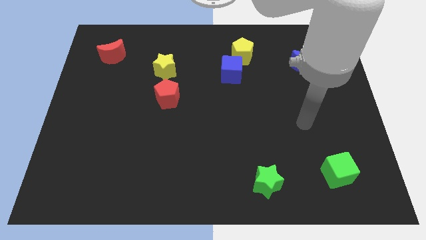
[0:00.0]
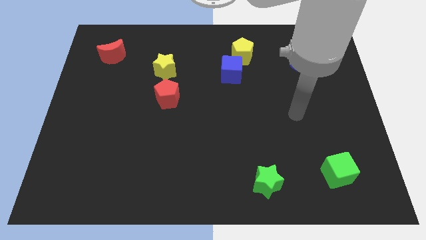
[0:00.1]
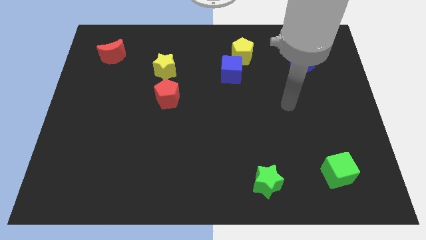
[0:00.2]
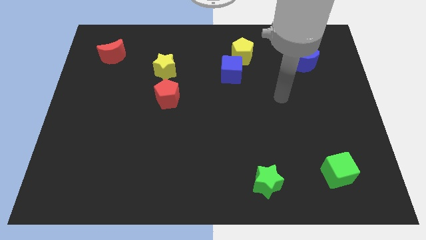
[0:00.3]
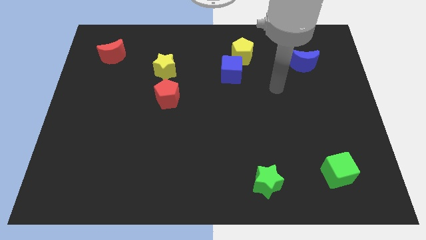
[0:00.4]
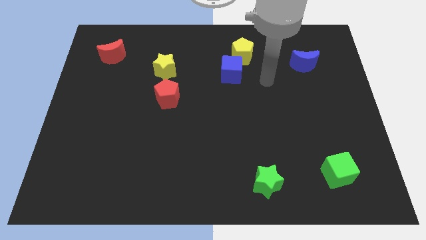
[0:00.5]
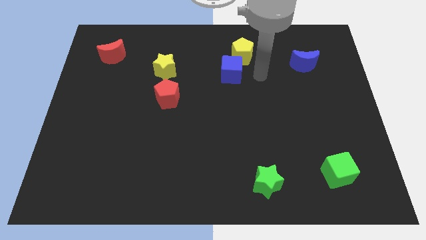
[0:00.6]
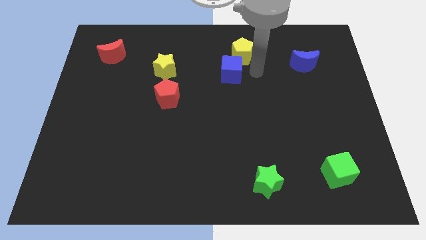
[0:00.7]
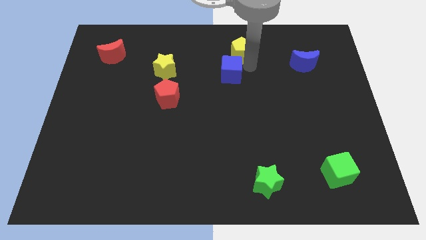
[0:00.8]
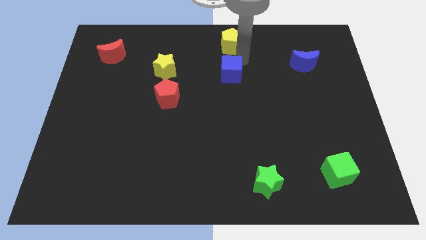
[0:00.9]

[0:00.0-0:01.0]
separate the blue cube from the yellow pentagon

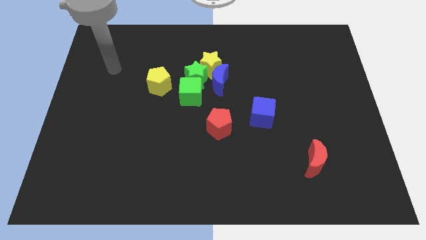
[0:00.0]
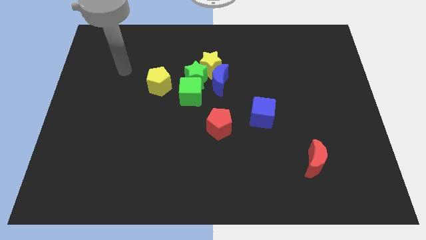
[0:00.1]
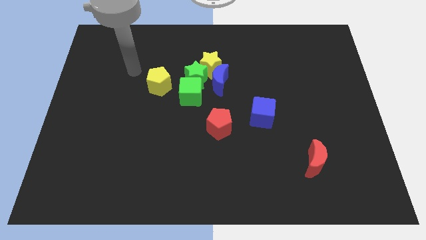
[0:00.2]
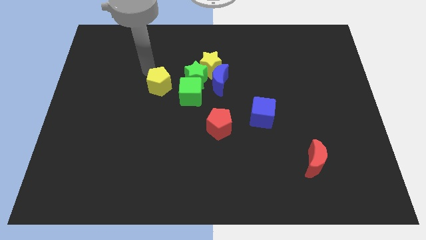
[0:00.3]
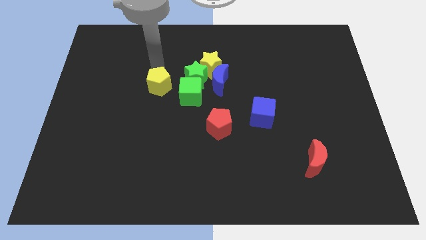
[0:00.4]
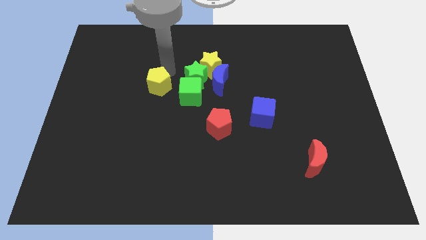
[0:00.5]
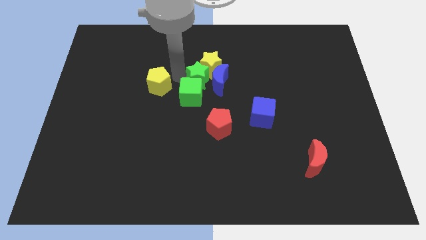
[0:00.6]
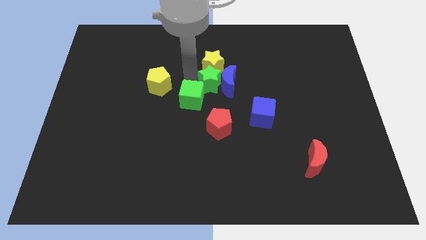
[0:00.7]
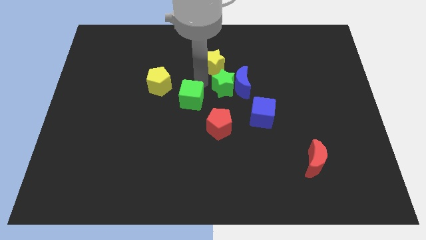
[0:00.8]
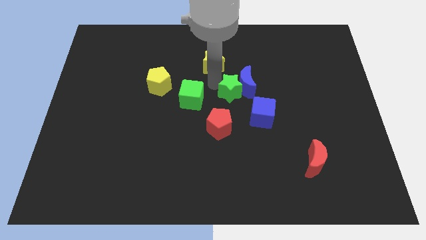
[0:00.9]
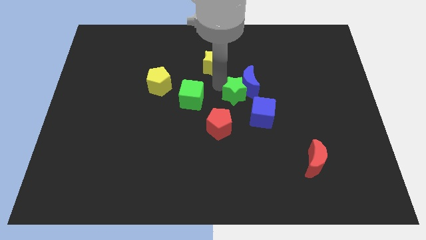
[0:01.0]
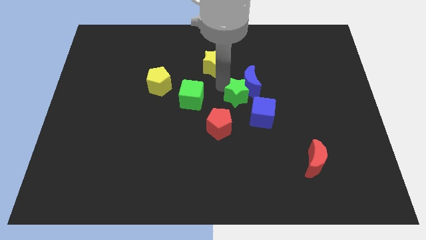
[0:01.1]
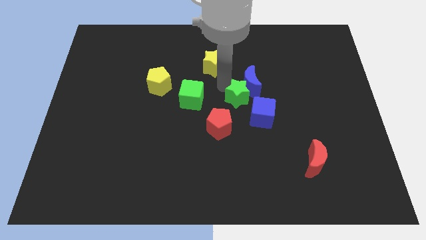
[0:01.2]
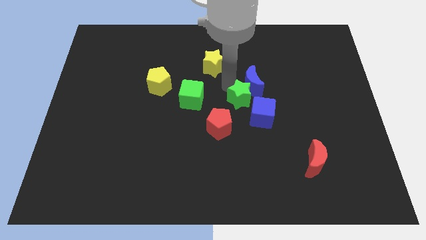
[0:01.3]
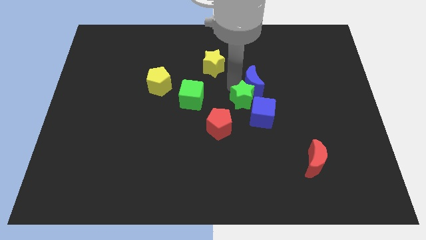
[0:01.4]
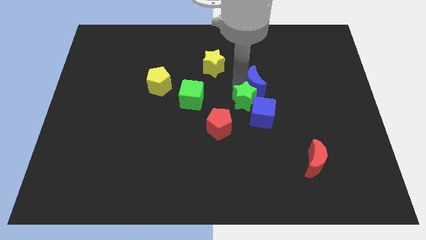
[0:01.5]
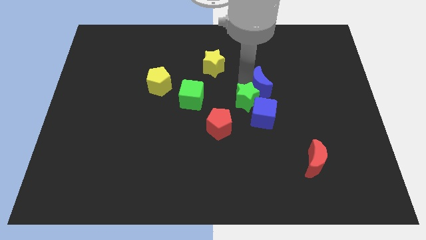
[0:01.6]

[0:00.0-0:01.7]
pull the blue moon apart from the yellow star, green star, and green cube

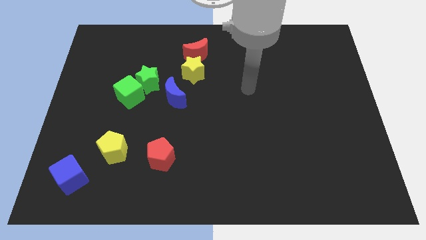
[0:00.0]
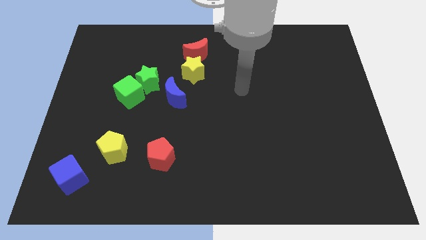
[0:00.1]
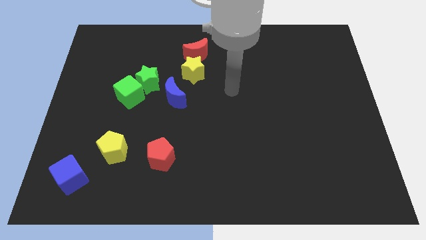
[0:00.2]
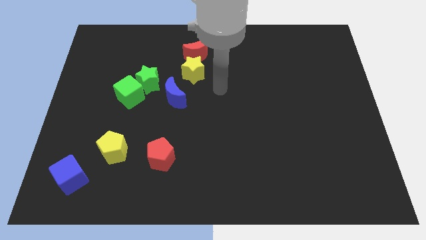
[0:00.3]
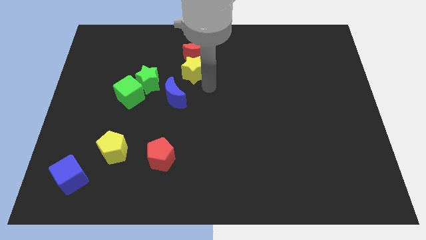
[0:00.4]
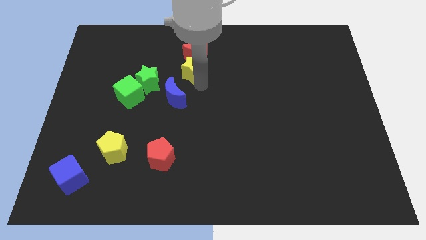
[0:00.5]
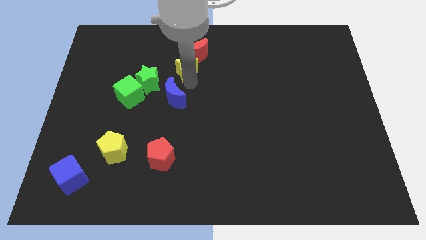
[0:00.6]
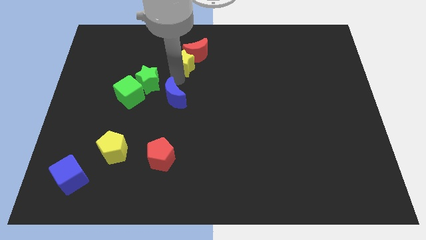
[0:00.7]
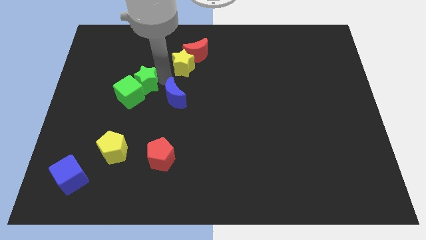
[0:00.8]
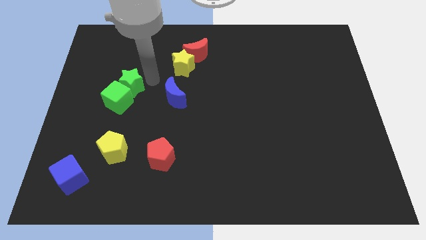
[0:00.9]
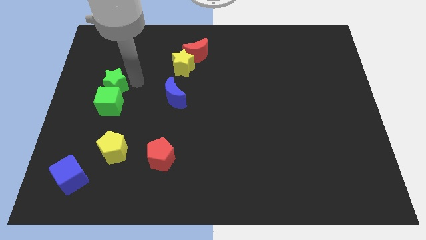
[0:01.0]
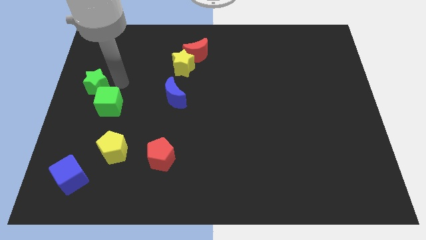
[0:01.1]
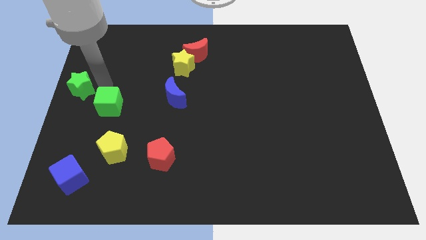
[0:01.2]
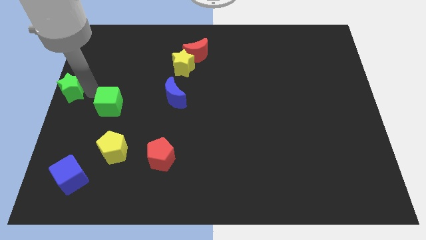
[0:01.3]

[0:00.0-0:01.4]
separate the green cube from the green star

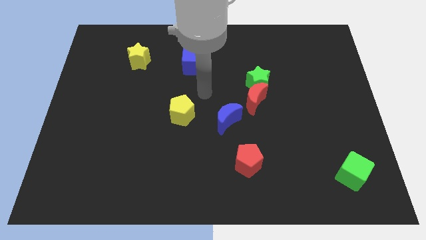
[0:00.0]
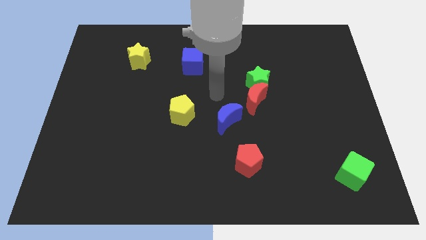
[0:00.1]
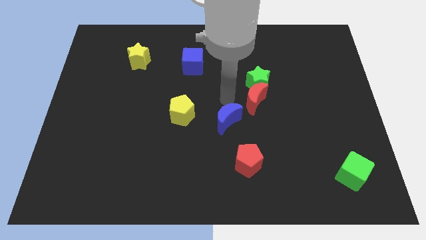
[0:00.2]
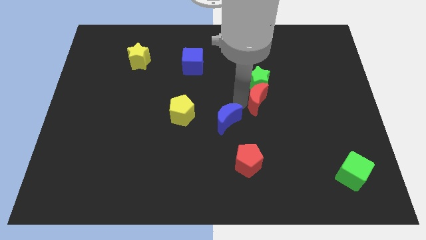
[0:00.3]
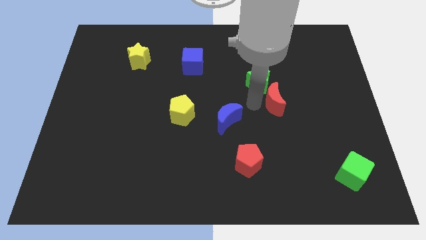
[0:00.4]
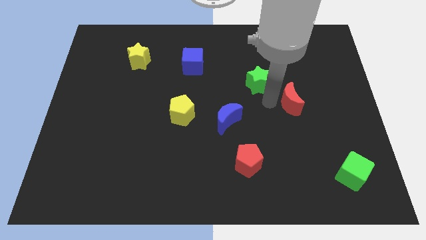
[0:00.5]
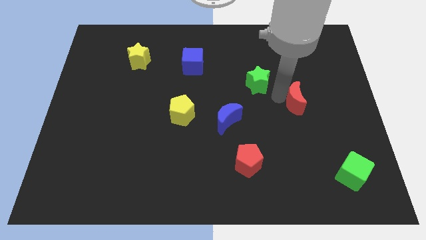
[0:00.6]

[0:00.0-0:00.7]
move the green star away from the red moon

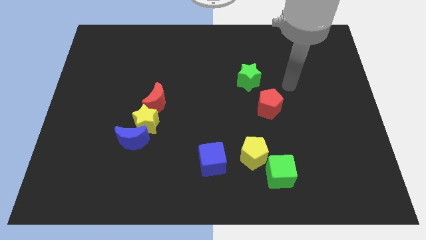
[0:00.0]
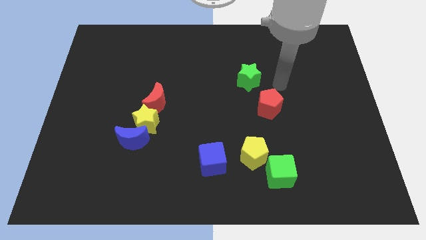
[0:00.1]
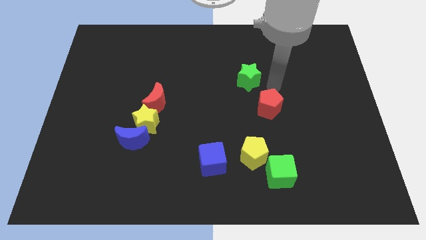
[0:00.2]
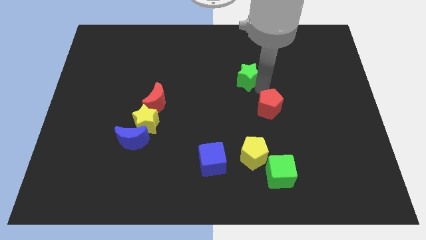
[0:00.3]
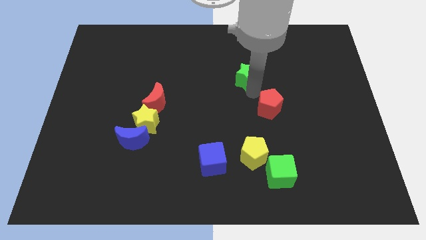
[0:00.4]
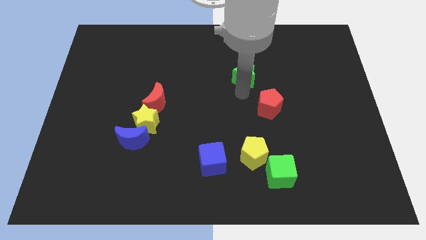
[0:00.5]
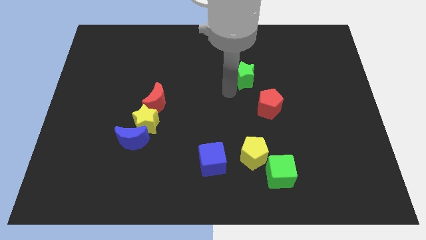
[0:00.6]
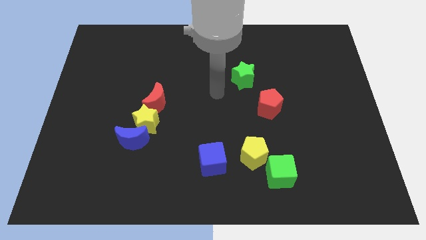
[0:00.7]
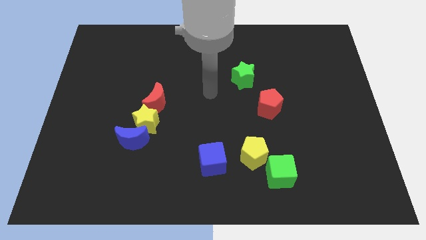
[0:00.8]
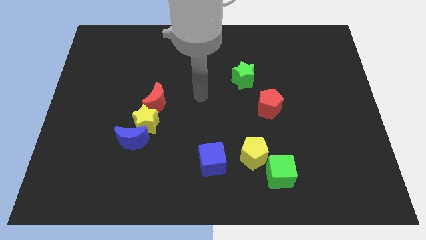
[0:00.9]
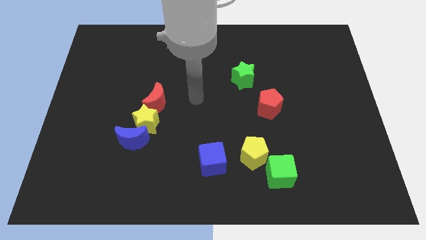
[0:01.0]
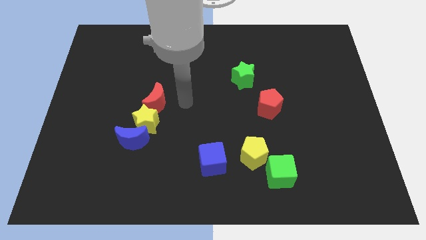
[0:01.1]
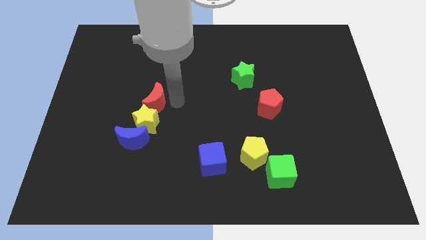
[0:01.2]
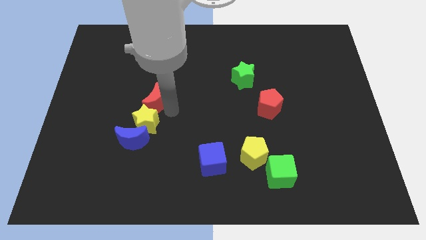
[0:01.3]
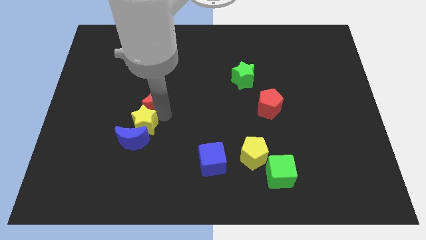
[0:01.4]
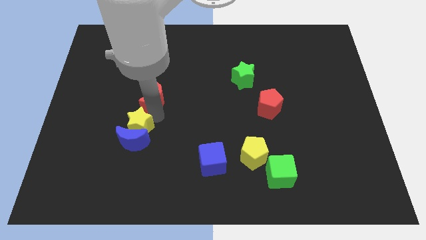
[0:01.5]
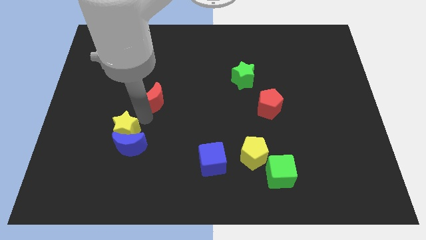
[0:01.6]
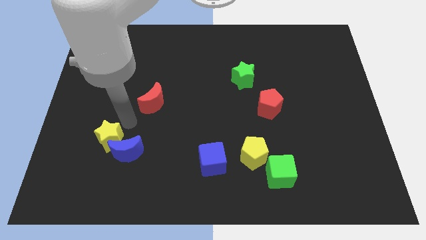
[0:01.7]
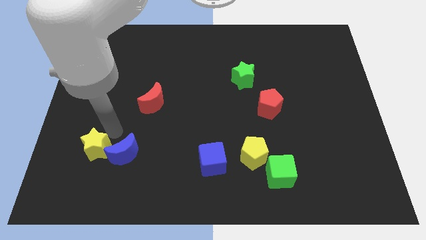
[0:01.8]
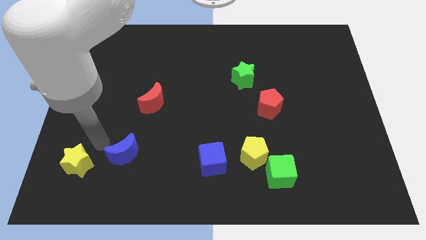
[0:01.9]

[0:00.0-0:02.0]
move the blue moon away from the yellow star

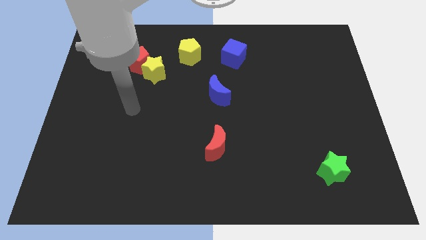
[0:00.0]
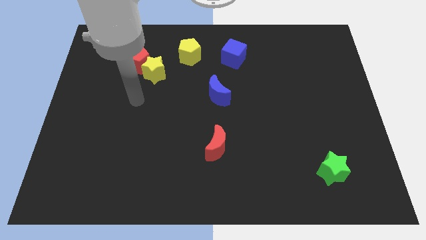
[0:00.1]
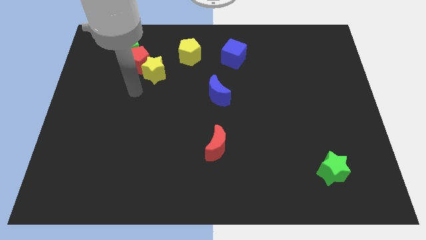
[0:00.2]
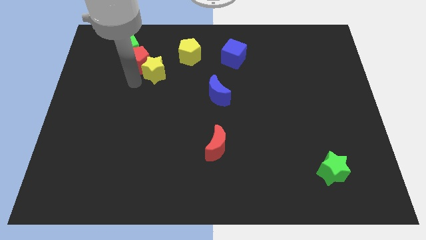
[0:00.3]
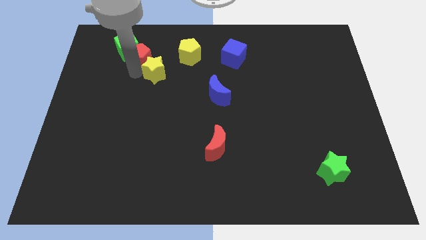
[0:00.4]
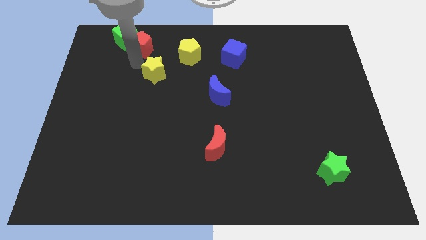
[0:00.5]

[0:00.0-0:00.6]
move the yellow star away from the red pentagon

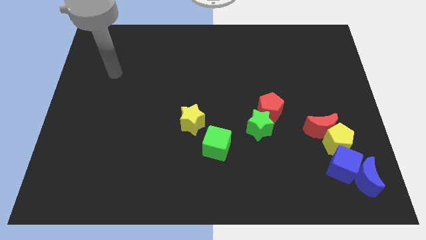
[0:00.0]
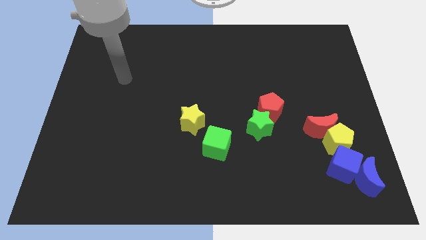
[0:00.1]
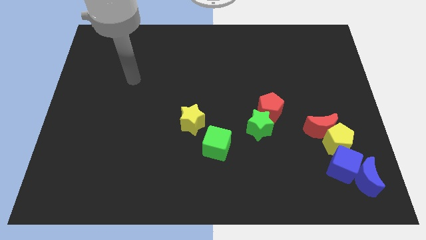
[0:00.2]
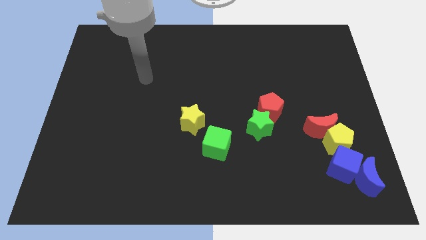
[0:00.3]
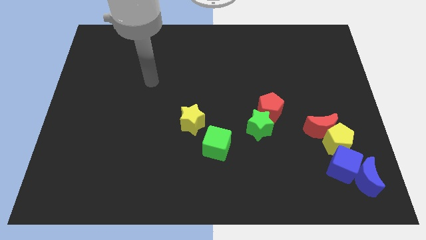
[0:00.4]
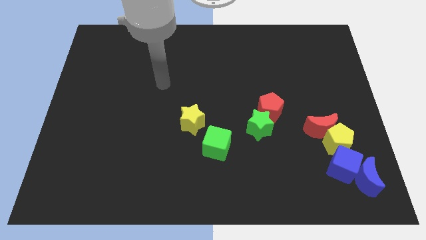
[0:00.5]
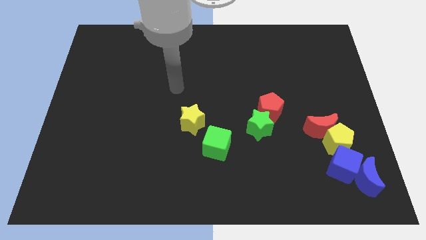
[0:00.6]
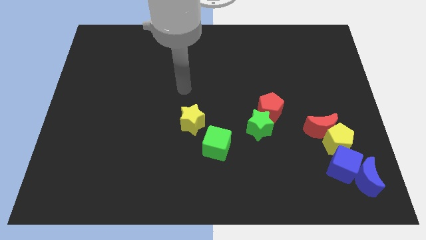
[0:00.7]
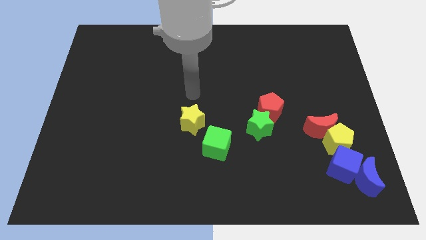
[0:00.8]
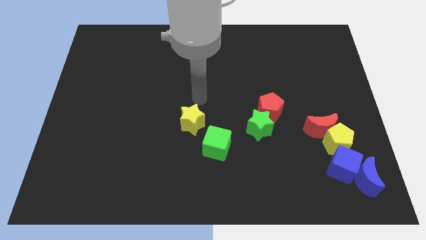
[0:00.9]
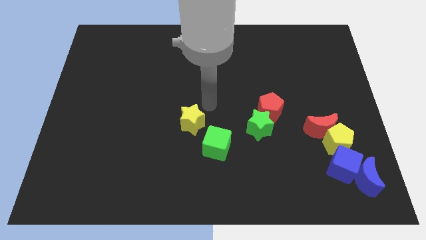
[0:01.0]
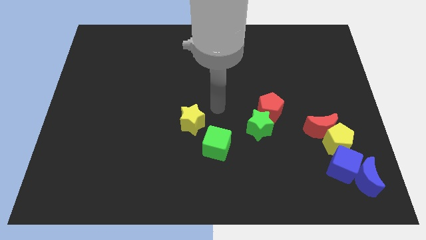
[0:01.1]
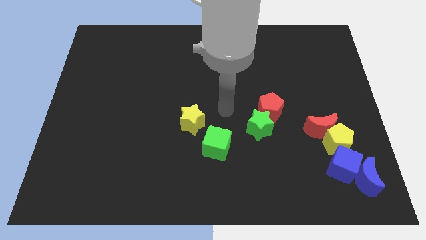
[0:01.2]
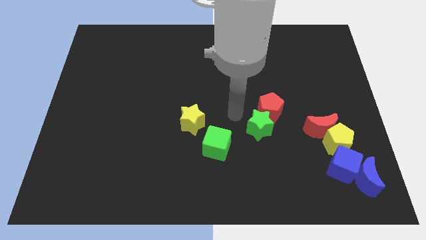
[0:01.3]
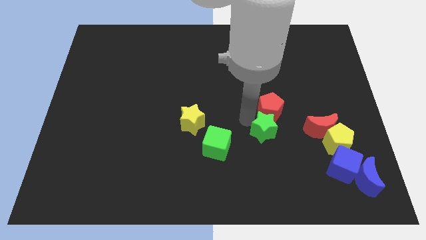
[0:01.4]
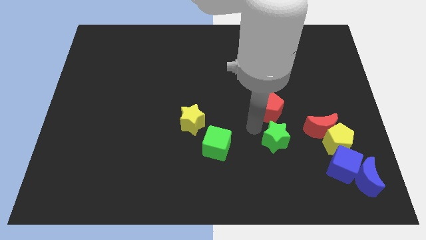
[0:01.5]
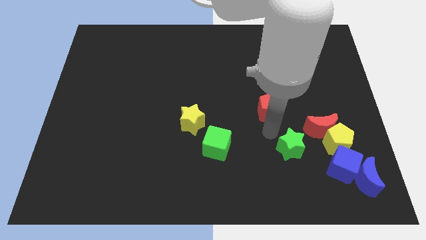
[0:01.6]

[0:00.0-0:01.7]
pull the red pentagon apart from the green star

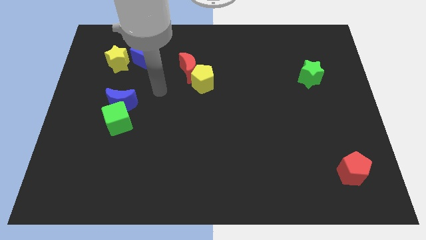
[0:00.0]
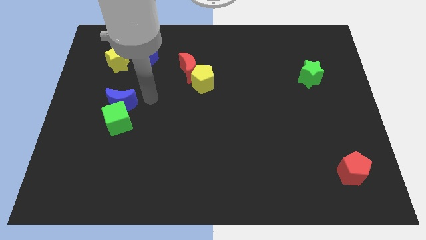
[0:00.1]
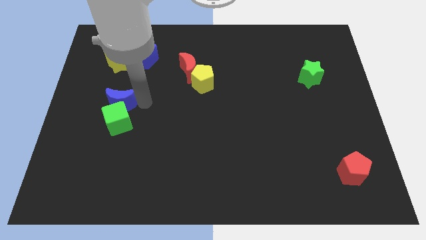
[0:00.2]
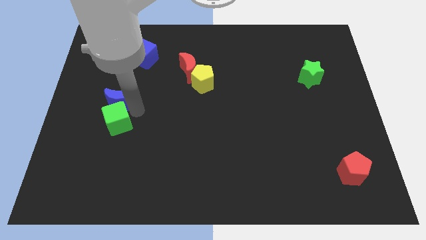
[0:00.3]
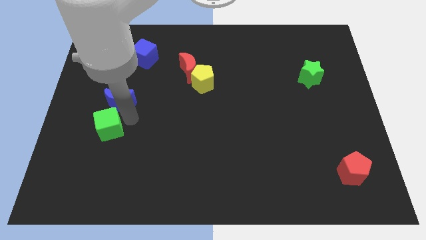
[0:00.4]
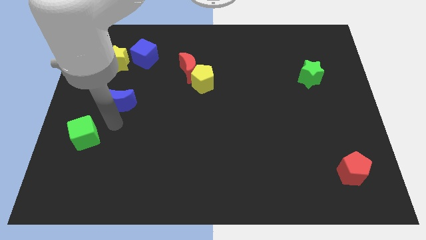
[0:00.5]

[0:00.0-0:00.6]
separate the blue moon from the green cube
